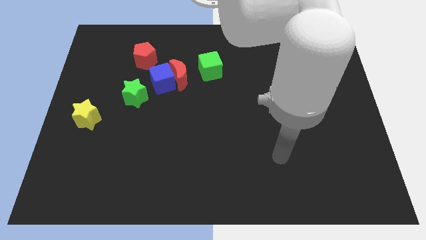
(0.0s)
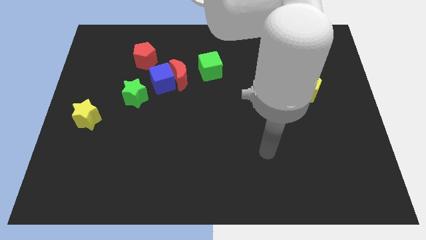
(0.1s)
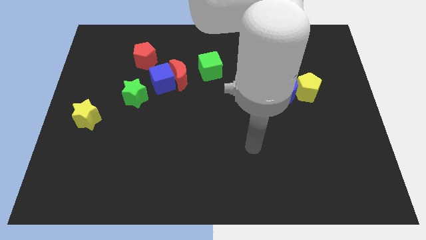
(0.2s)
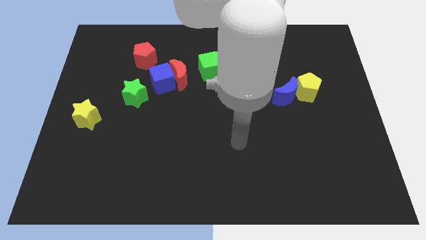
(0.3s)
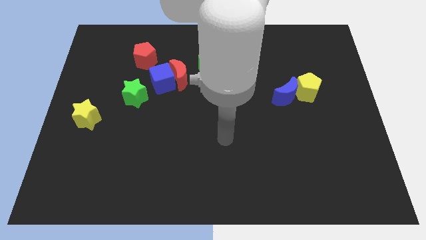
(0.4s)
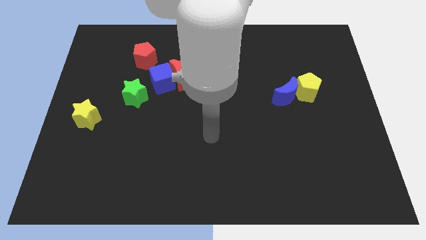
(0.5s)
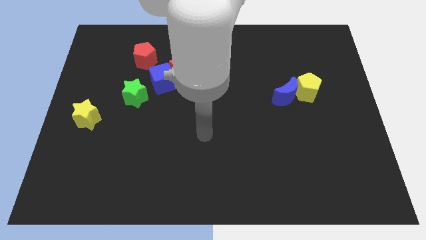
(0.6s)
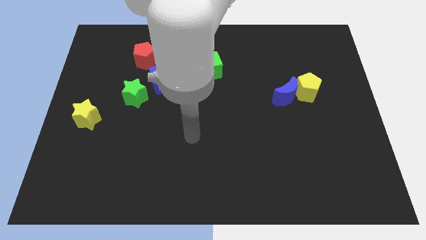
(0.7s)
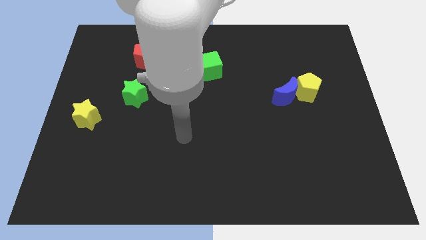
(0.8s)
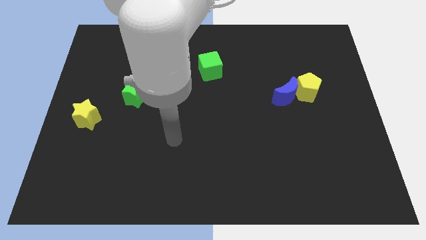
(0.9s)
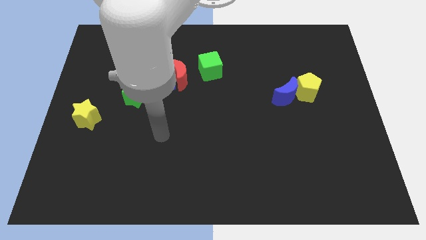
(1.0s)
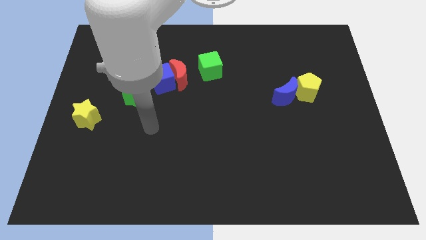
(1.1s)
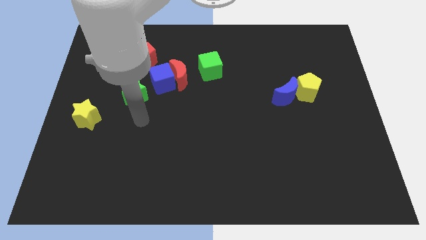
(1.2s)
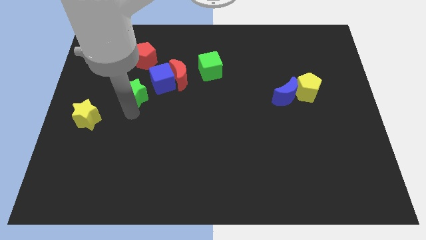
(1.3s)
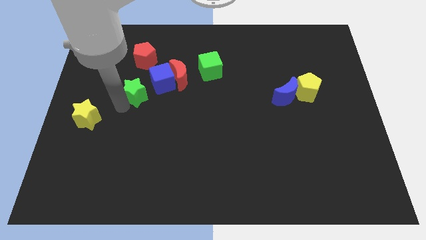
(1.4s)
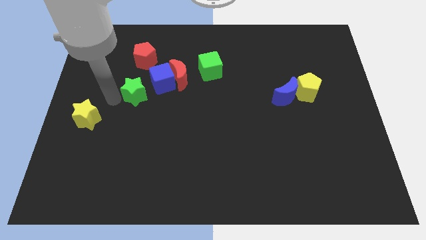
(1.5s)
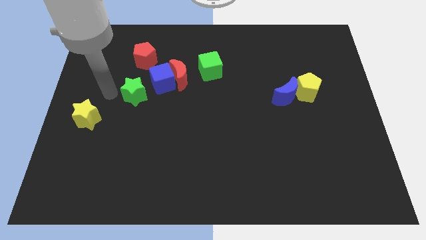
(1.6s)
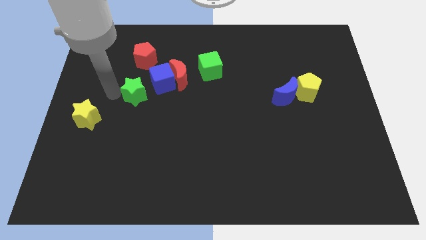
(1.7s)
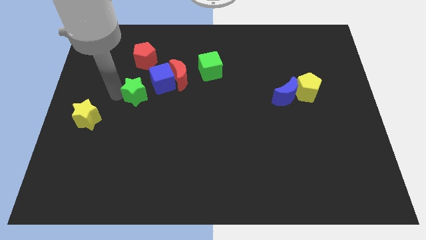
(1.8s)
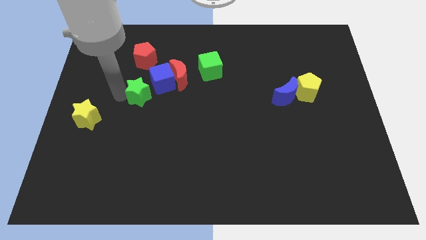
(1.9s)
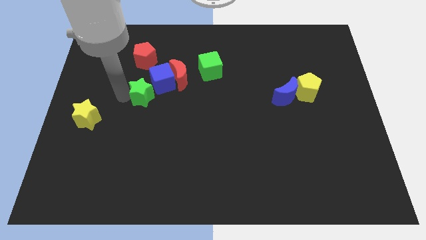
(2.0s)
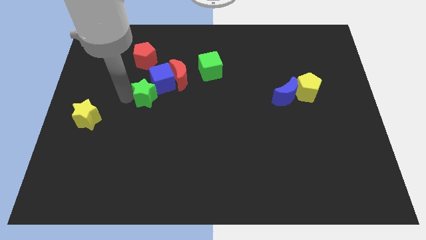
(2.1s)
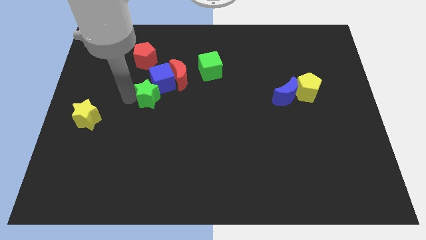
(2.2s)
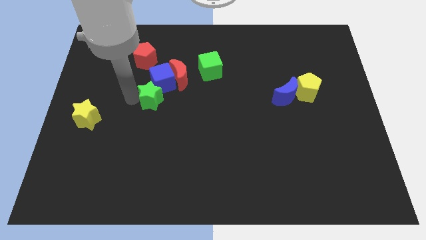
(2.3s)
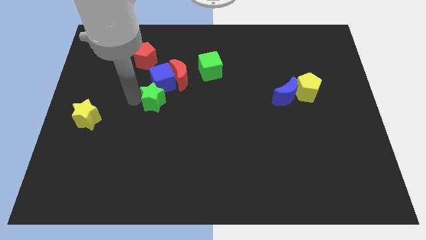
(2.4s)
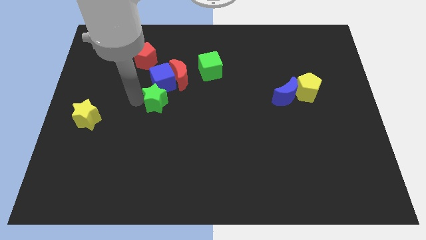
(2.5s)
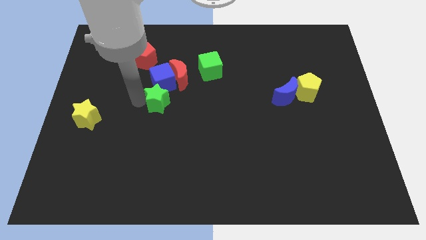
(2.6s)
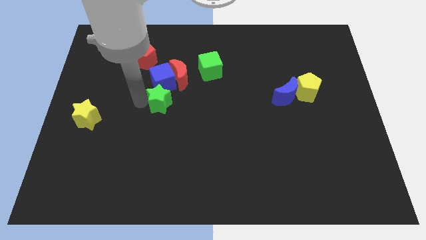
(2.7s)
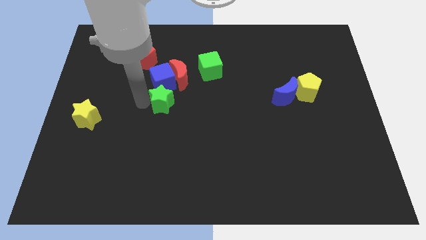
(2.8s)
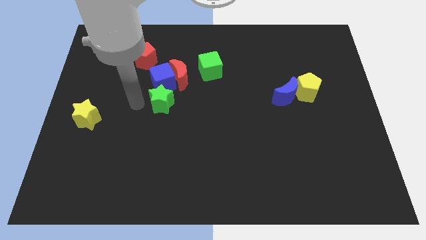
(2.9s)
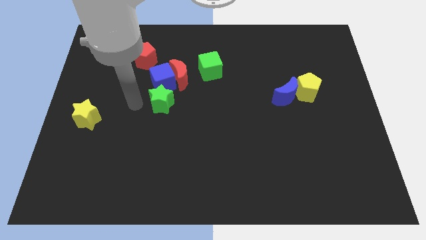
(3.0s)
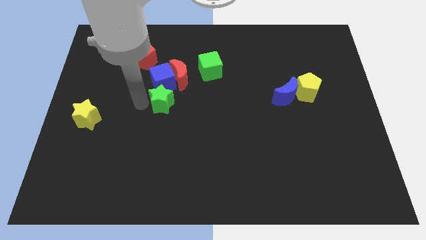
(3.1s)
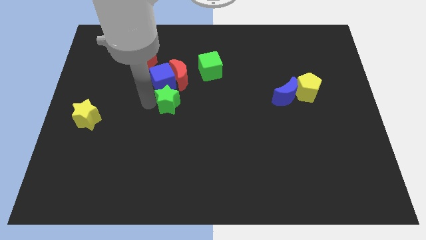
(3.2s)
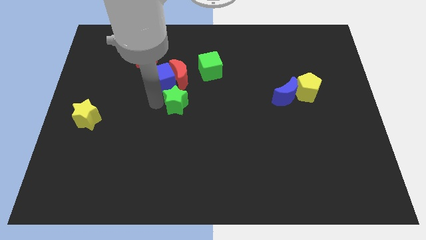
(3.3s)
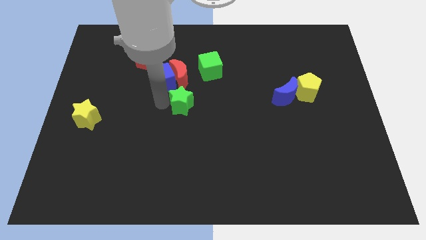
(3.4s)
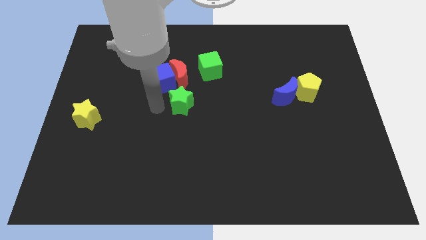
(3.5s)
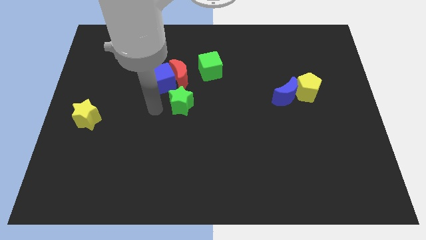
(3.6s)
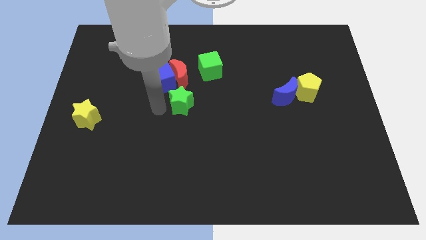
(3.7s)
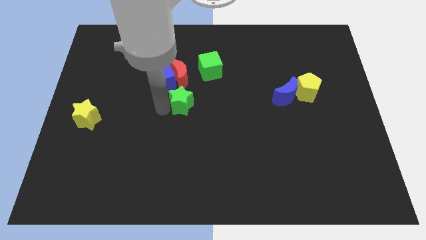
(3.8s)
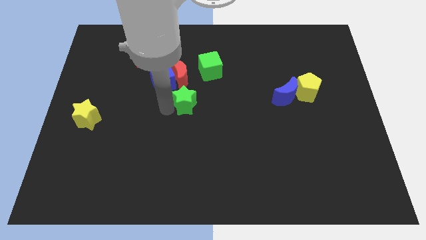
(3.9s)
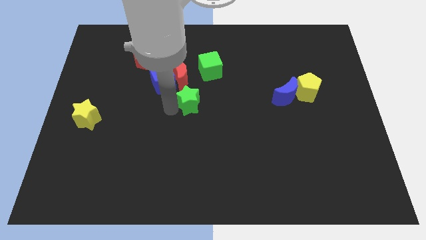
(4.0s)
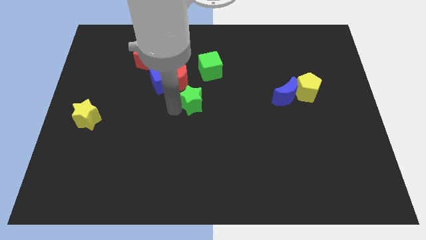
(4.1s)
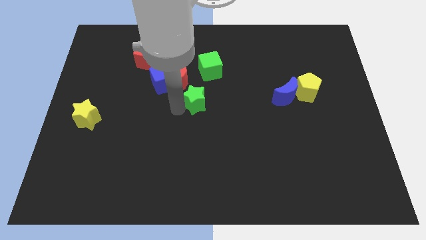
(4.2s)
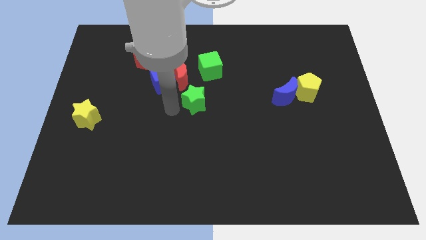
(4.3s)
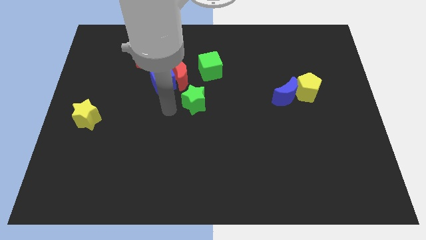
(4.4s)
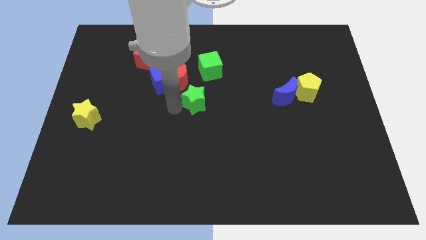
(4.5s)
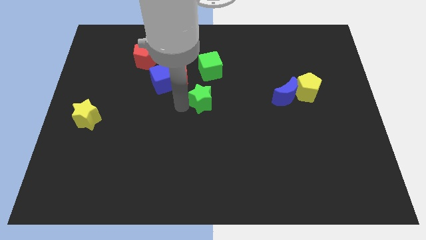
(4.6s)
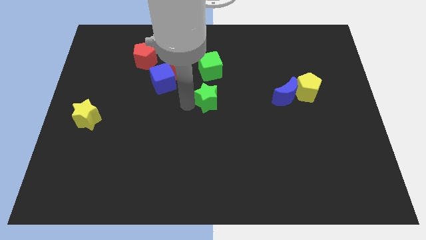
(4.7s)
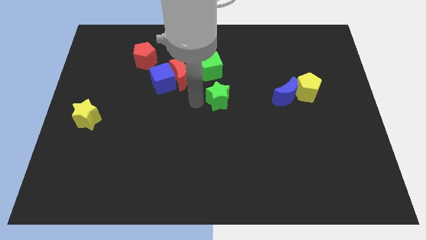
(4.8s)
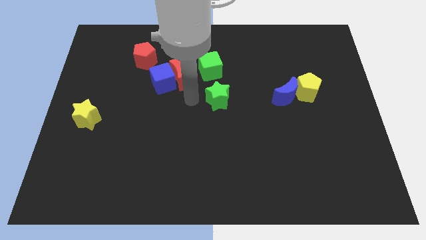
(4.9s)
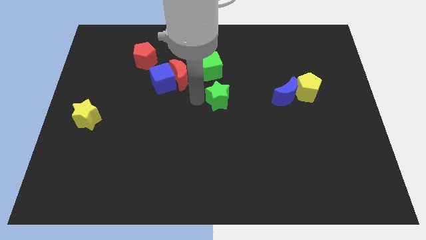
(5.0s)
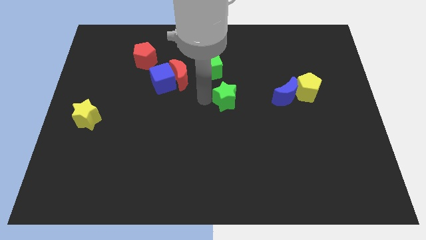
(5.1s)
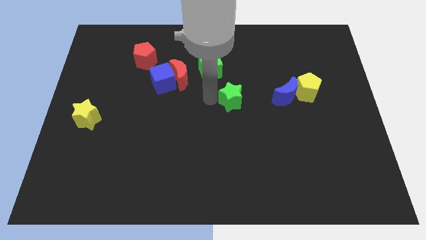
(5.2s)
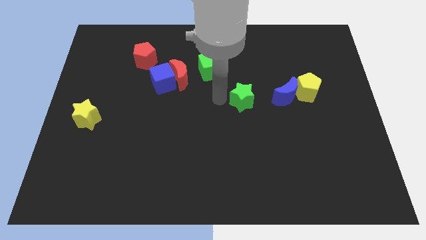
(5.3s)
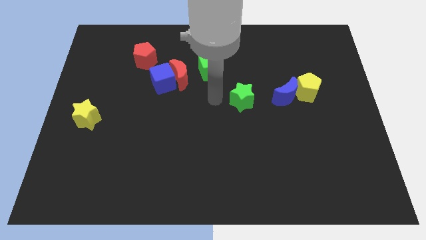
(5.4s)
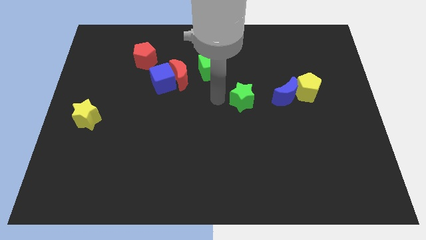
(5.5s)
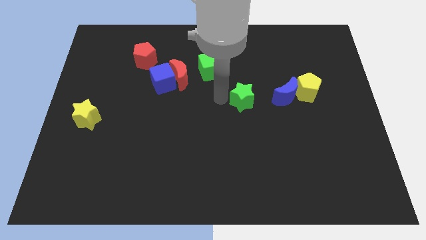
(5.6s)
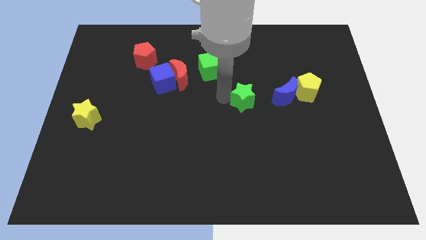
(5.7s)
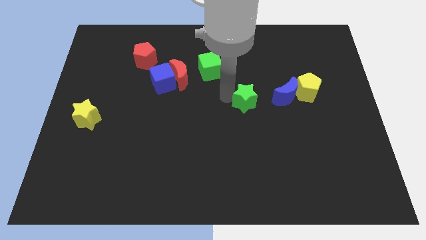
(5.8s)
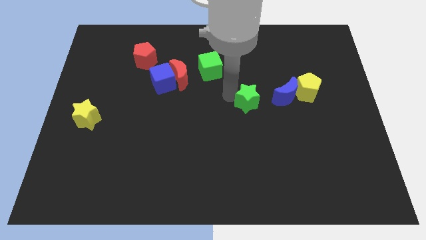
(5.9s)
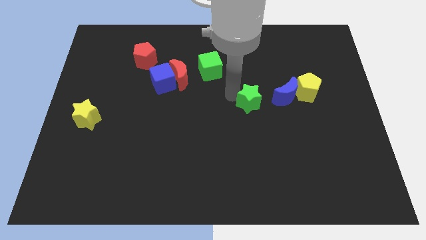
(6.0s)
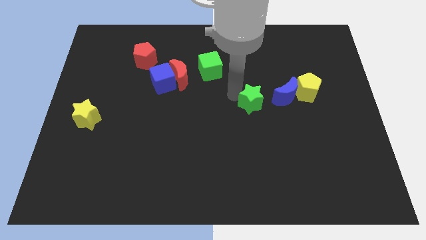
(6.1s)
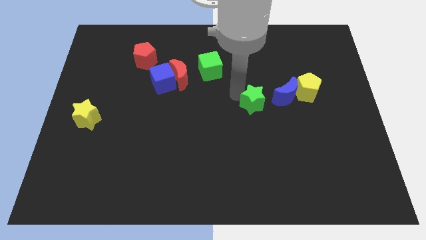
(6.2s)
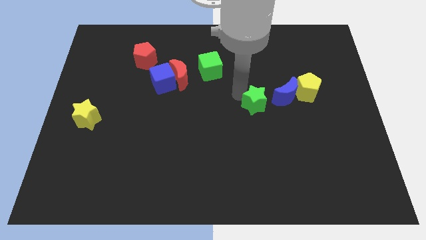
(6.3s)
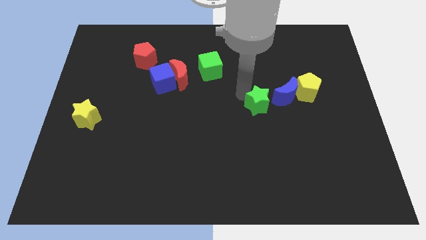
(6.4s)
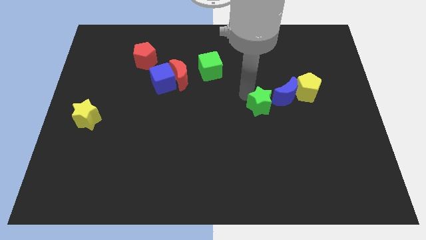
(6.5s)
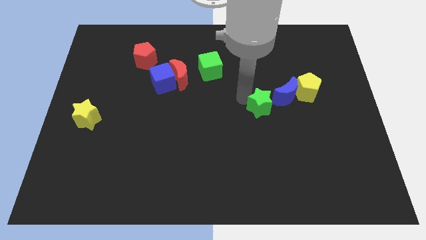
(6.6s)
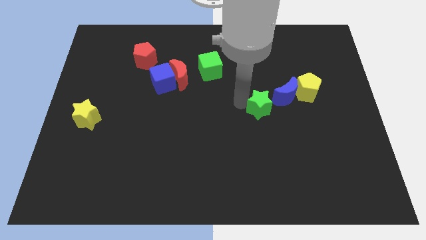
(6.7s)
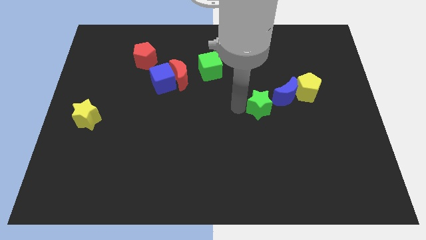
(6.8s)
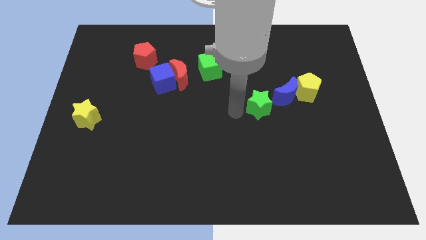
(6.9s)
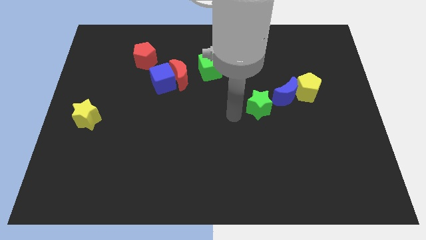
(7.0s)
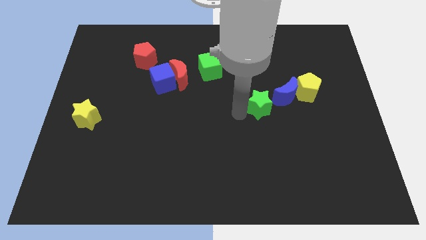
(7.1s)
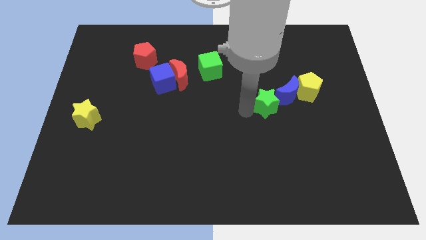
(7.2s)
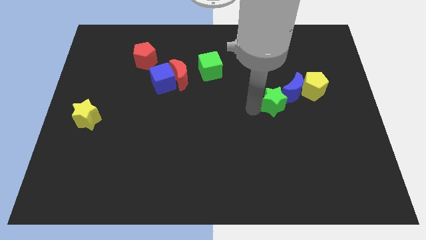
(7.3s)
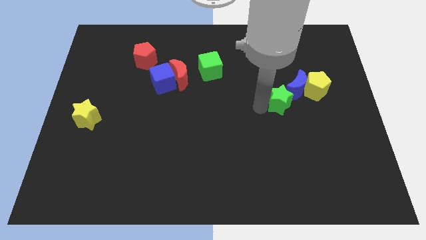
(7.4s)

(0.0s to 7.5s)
slide the green star to the blue moon
